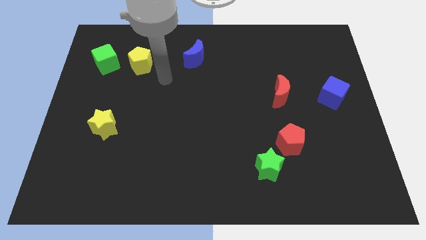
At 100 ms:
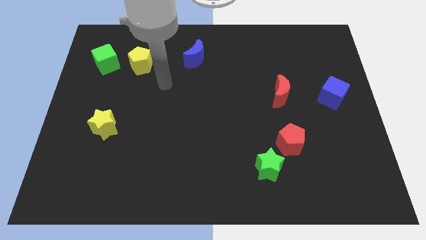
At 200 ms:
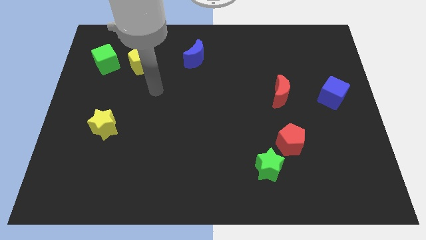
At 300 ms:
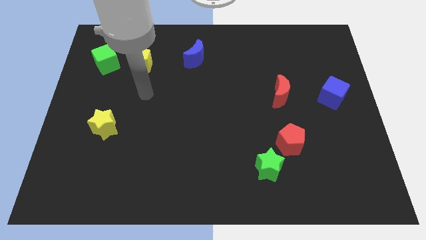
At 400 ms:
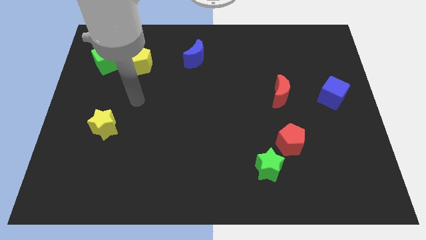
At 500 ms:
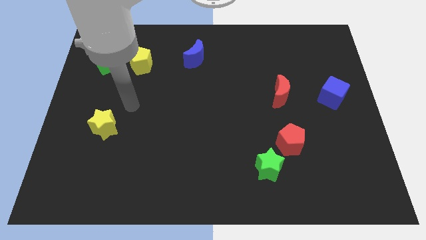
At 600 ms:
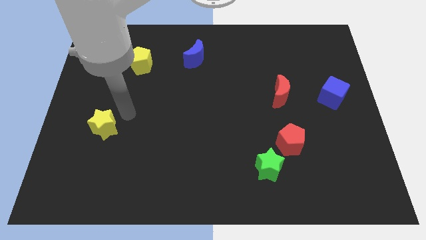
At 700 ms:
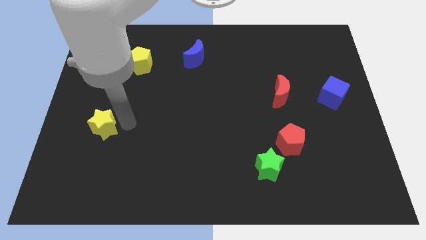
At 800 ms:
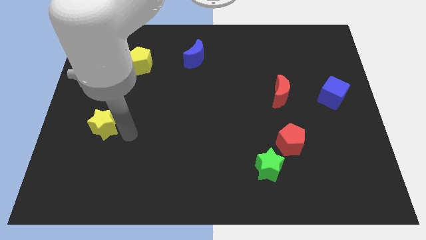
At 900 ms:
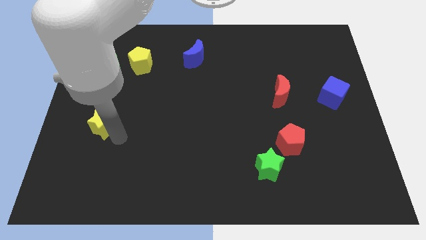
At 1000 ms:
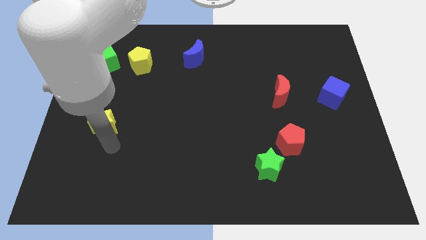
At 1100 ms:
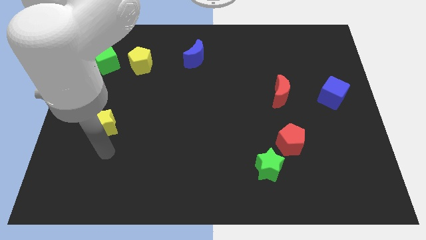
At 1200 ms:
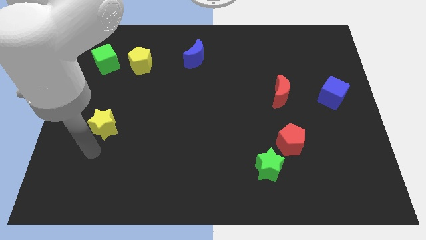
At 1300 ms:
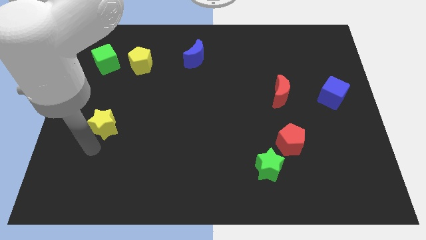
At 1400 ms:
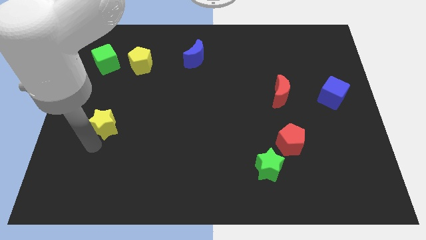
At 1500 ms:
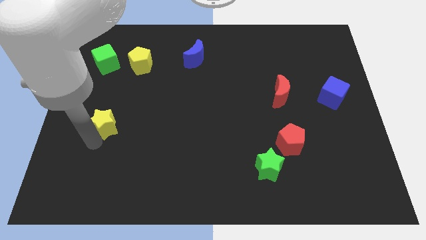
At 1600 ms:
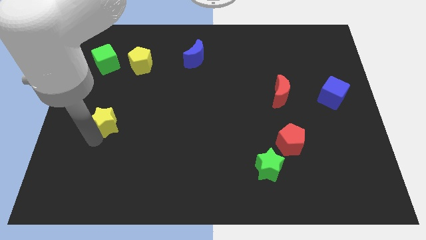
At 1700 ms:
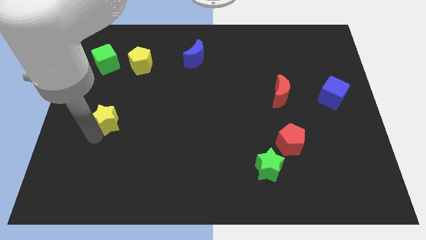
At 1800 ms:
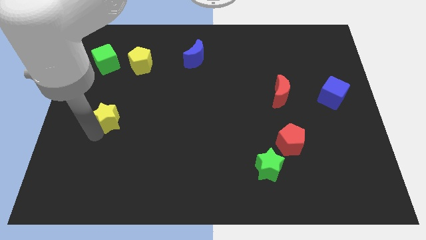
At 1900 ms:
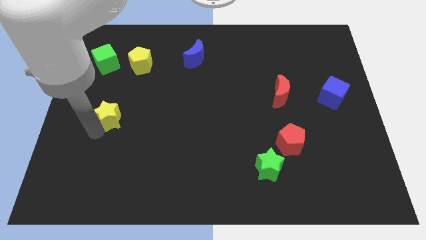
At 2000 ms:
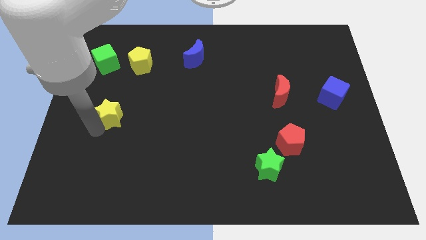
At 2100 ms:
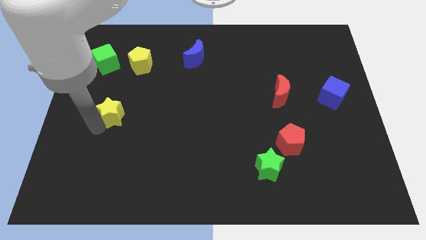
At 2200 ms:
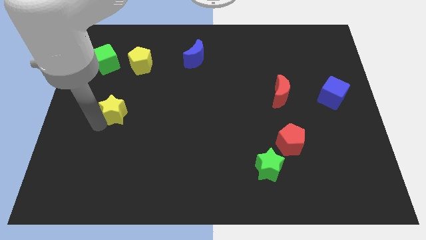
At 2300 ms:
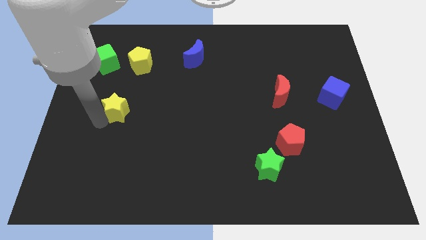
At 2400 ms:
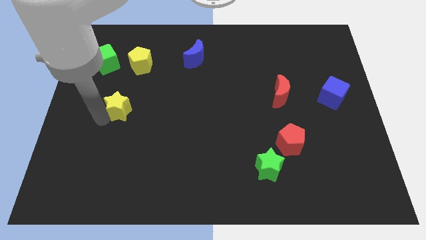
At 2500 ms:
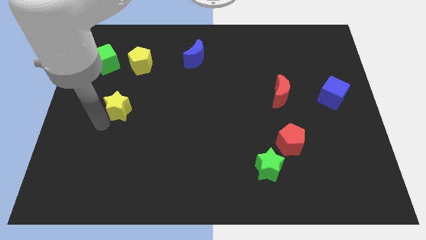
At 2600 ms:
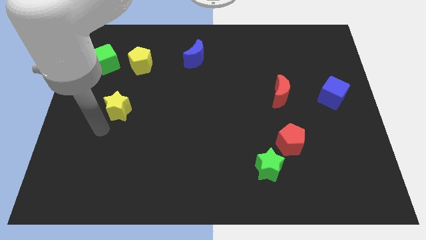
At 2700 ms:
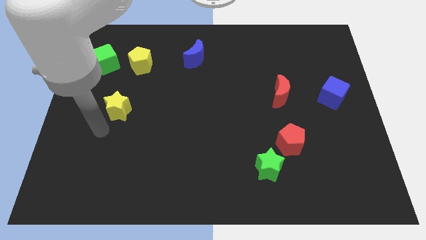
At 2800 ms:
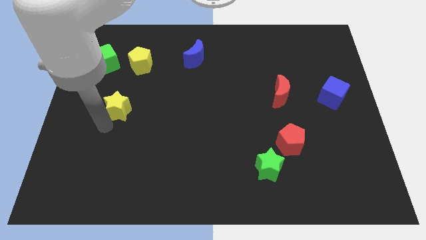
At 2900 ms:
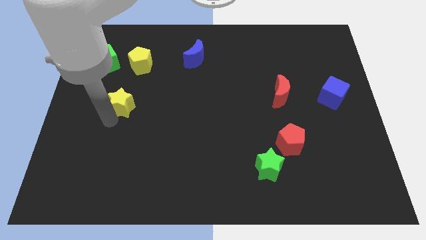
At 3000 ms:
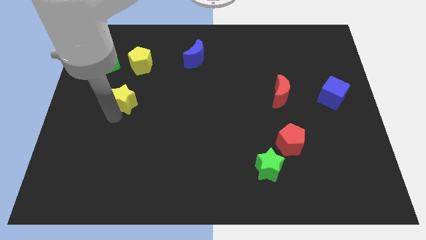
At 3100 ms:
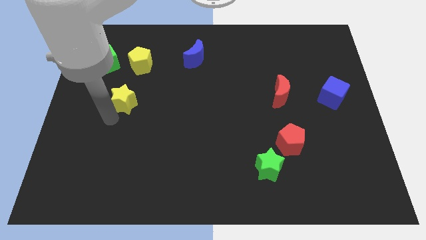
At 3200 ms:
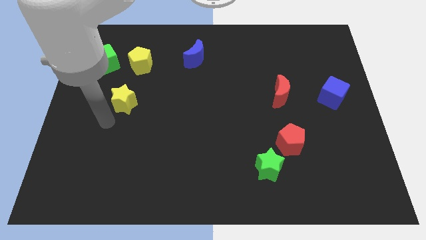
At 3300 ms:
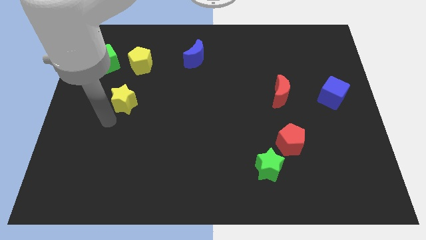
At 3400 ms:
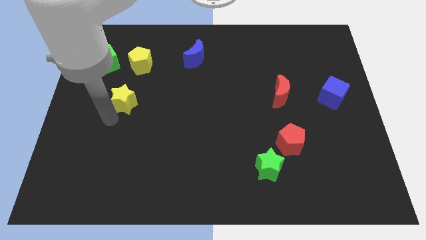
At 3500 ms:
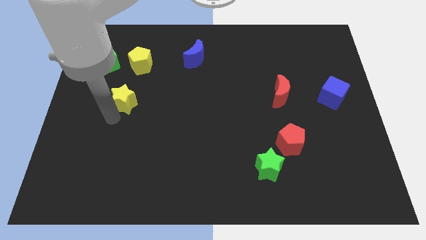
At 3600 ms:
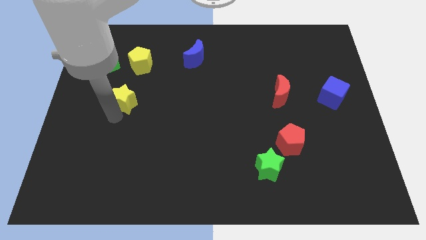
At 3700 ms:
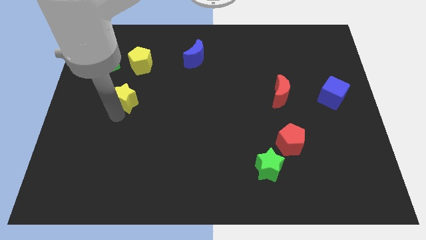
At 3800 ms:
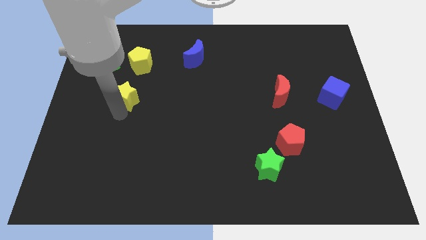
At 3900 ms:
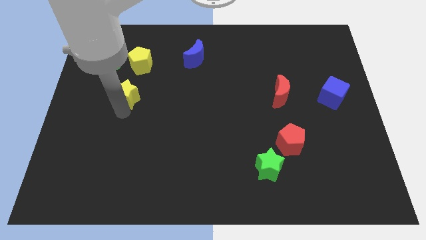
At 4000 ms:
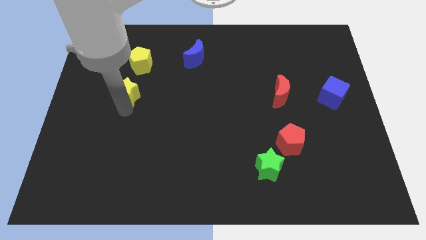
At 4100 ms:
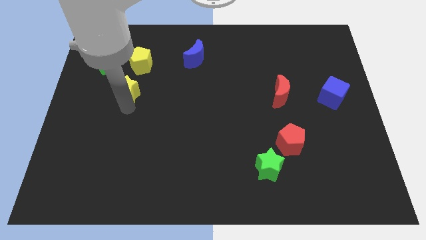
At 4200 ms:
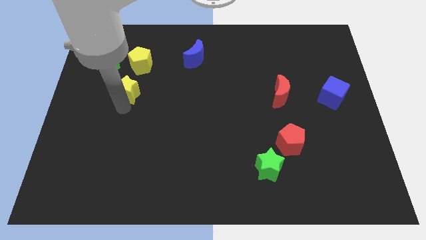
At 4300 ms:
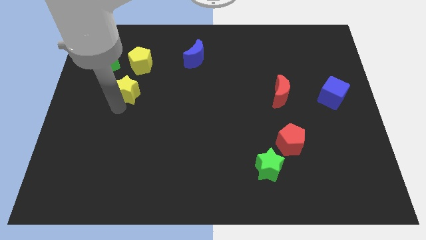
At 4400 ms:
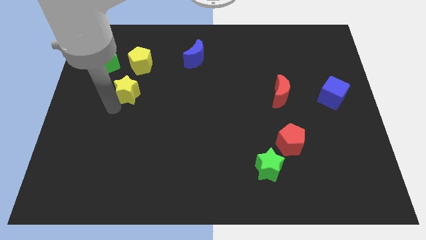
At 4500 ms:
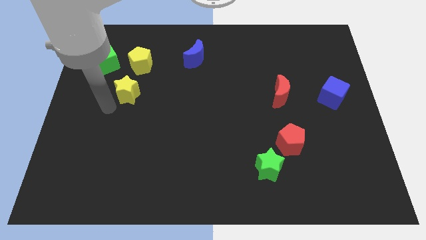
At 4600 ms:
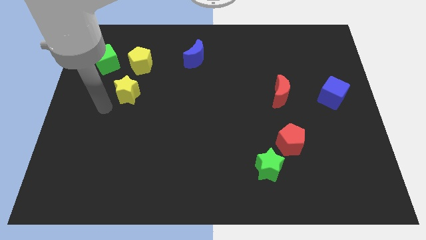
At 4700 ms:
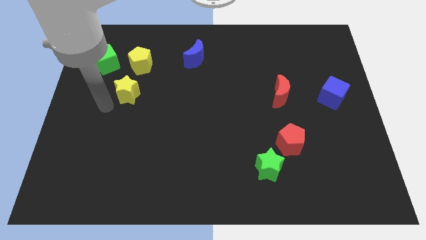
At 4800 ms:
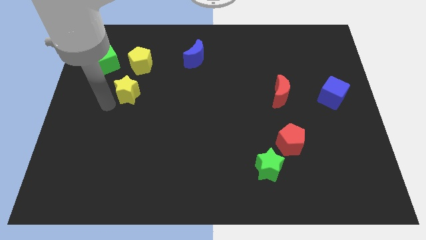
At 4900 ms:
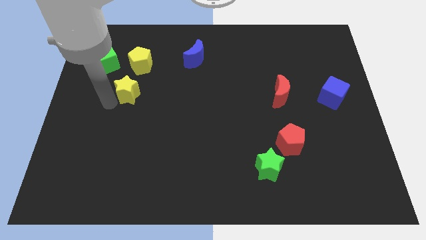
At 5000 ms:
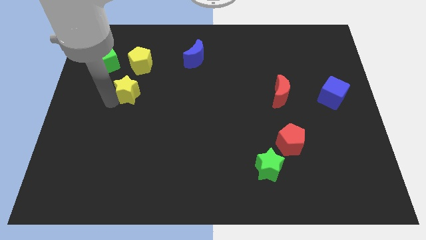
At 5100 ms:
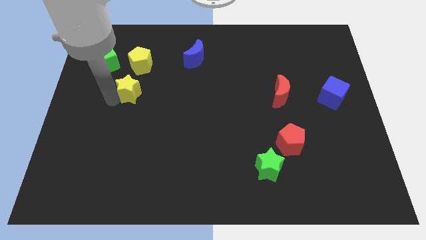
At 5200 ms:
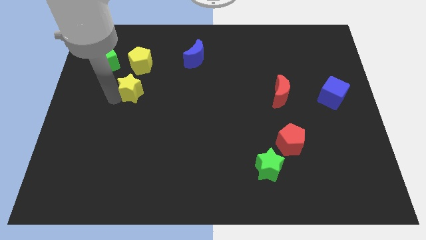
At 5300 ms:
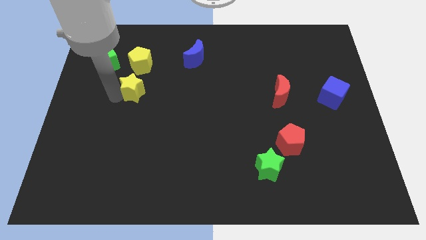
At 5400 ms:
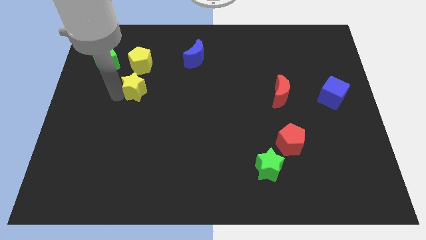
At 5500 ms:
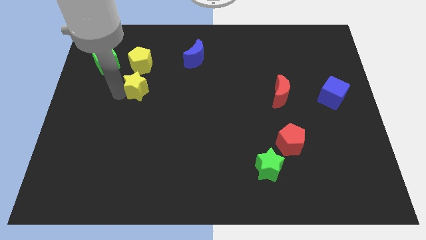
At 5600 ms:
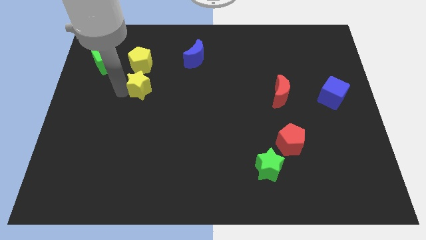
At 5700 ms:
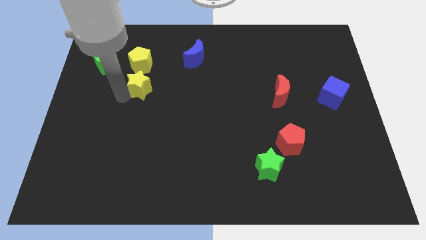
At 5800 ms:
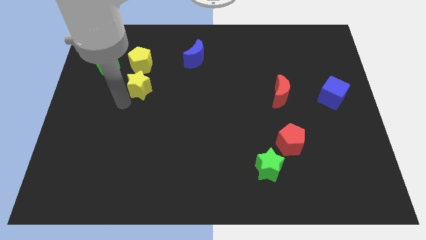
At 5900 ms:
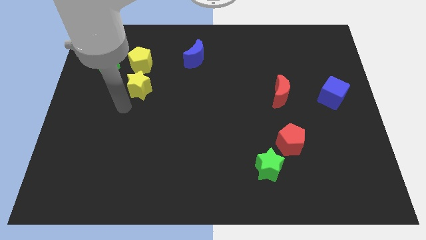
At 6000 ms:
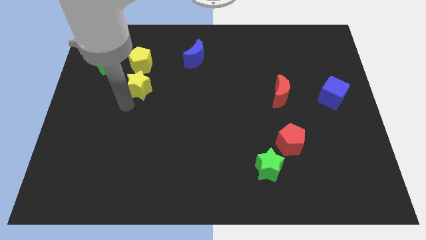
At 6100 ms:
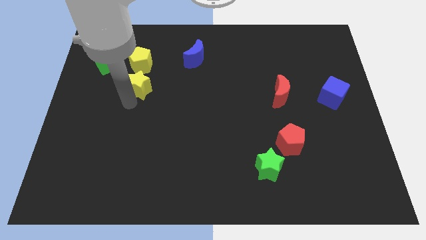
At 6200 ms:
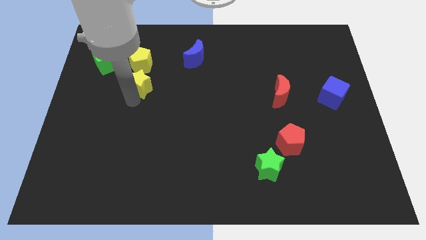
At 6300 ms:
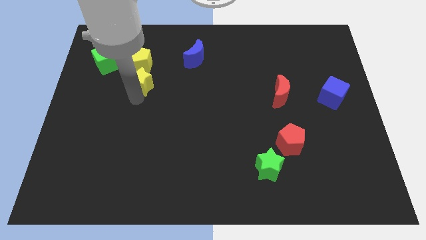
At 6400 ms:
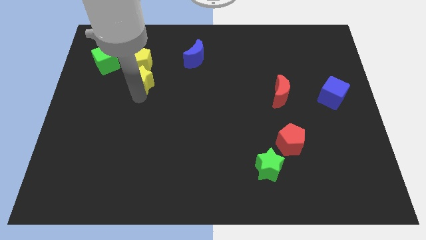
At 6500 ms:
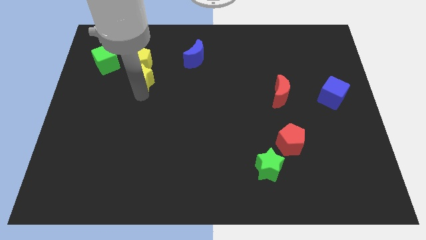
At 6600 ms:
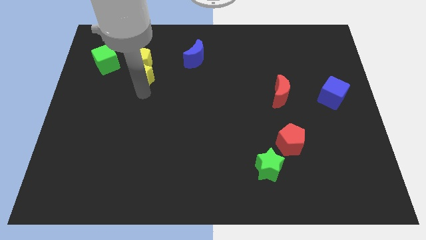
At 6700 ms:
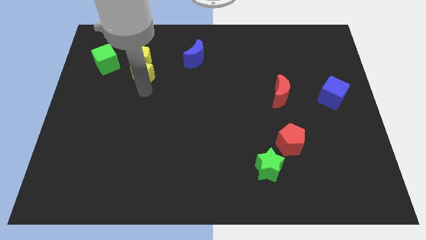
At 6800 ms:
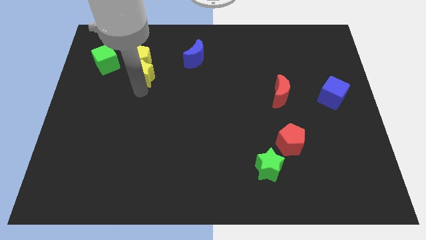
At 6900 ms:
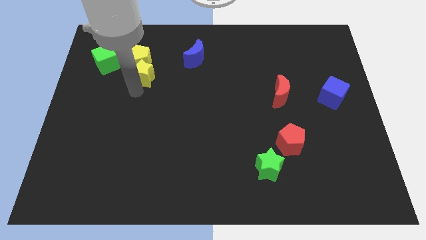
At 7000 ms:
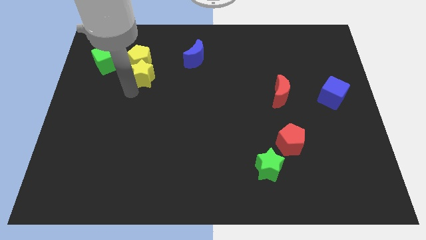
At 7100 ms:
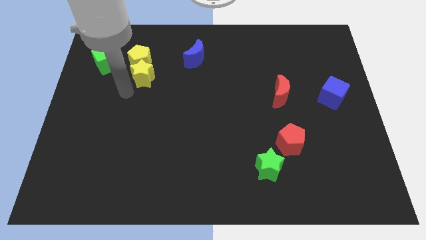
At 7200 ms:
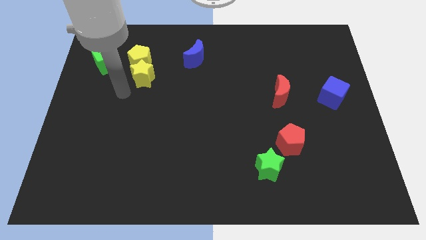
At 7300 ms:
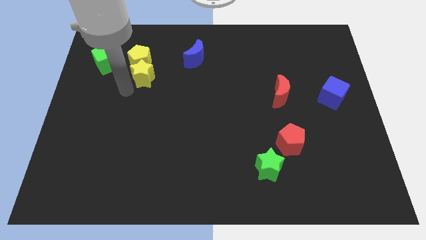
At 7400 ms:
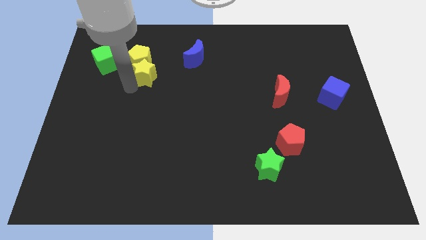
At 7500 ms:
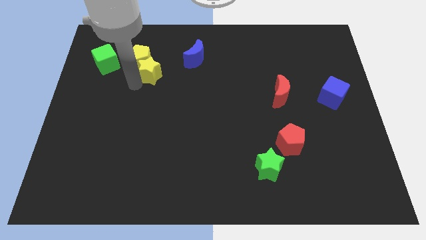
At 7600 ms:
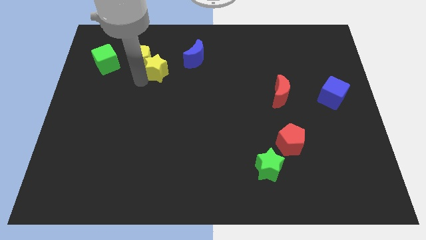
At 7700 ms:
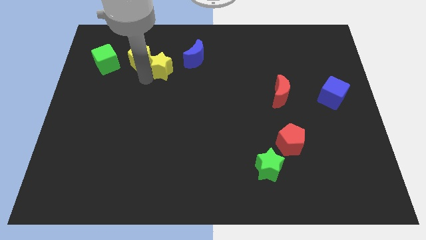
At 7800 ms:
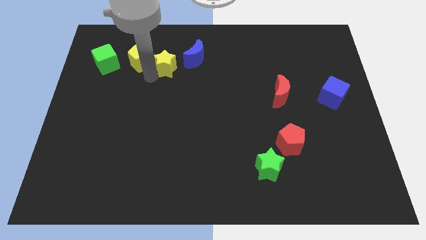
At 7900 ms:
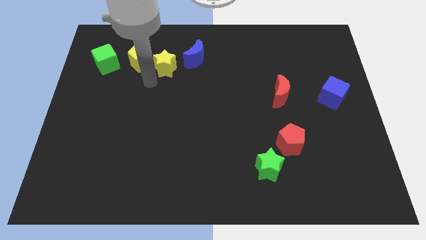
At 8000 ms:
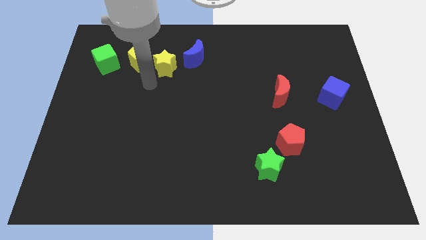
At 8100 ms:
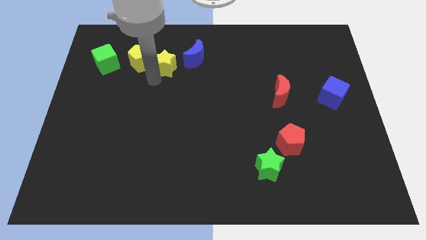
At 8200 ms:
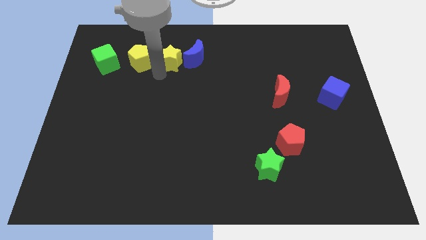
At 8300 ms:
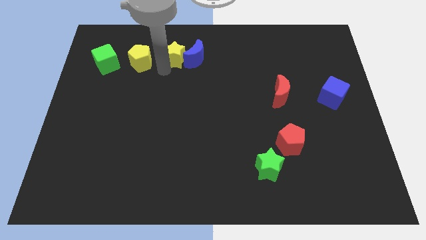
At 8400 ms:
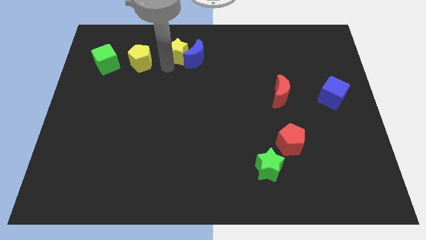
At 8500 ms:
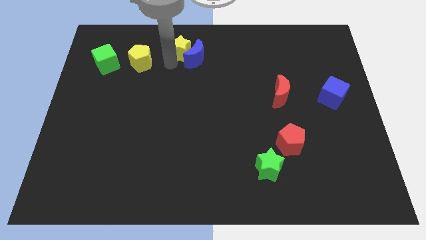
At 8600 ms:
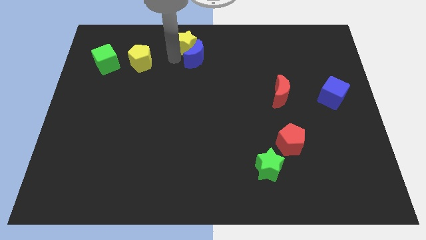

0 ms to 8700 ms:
push the yellow star to the top side
